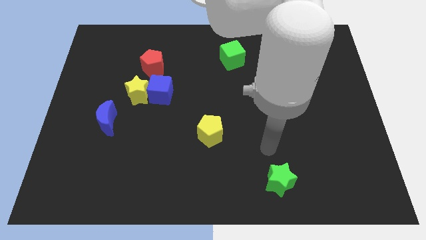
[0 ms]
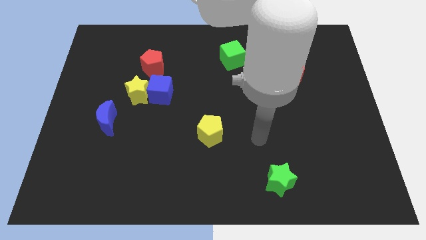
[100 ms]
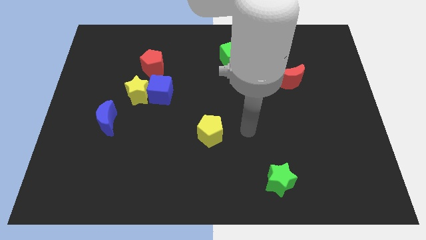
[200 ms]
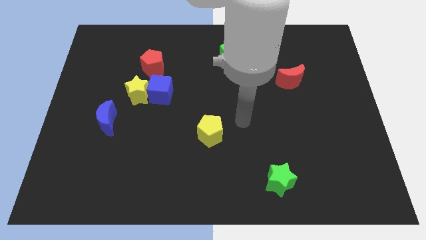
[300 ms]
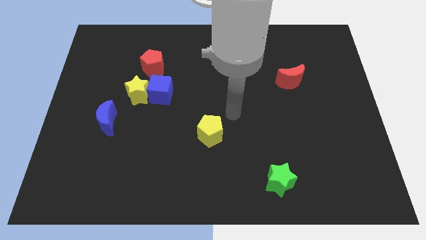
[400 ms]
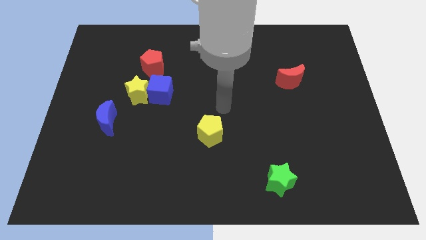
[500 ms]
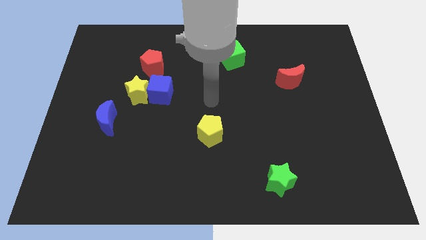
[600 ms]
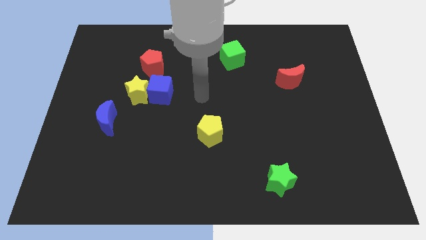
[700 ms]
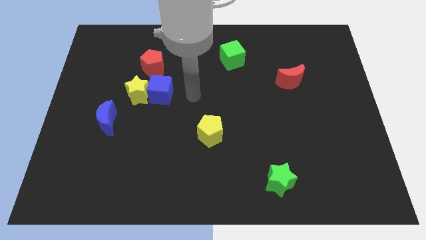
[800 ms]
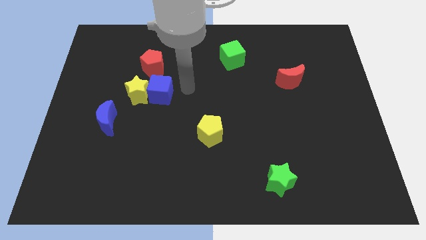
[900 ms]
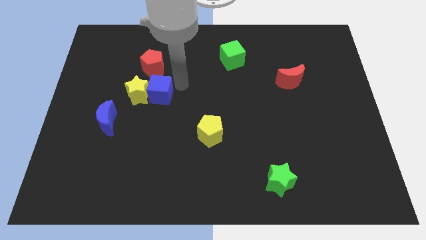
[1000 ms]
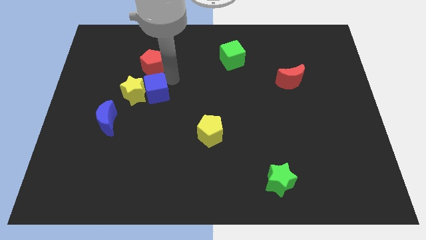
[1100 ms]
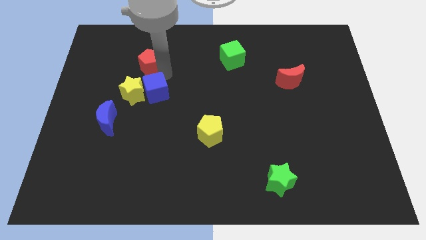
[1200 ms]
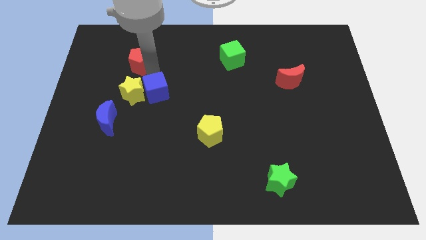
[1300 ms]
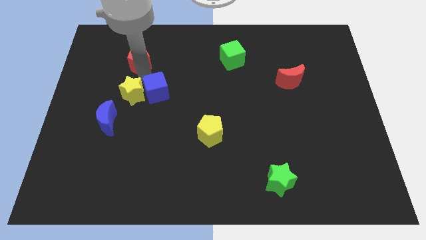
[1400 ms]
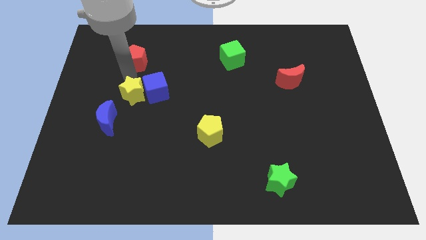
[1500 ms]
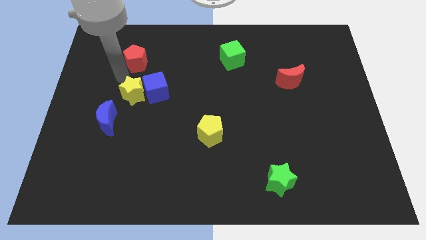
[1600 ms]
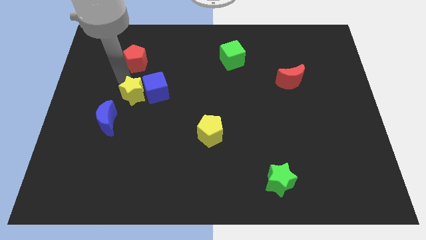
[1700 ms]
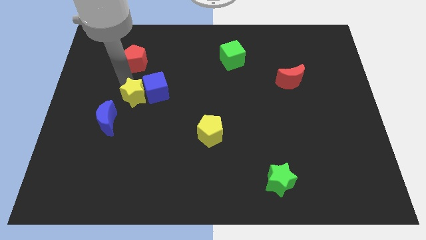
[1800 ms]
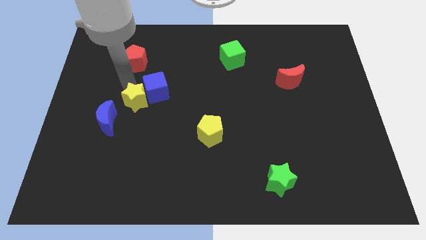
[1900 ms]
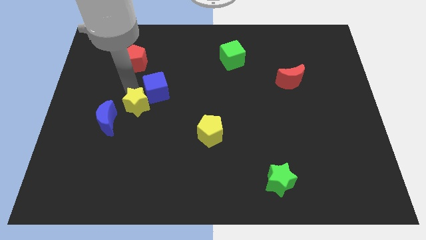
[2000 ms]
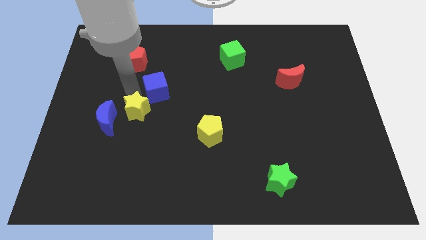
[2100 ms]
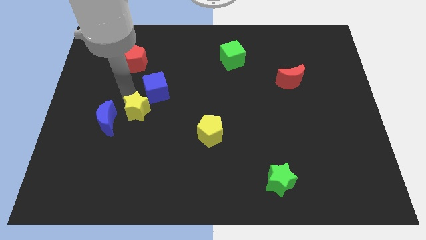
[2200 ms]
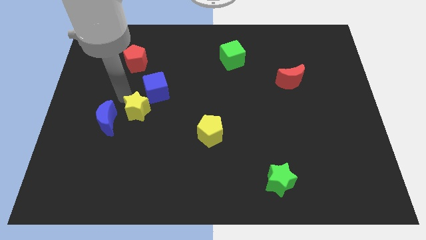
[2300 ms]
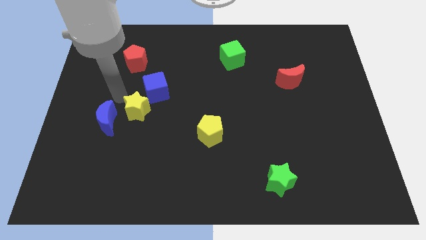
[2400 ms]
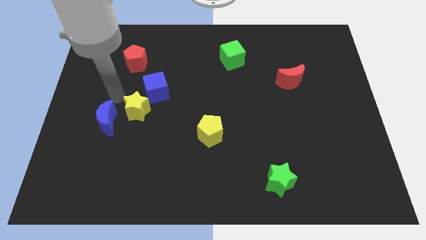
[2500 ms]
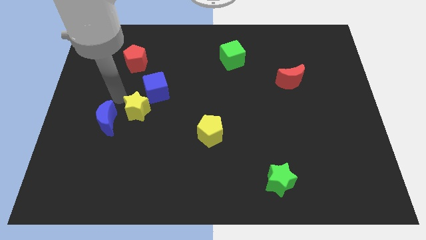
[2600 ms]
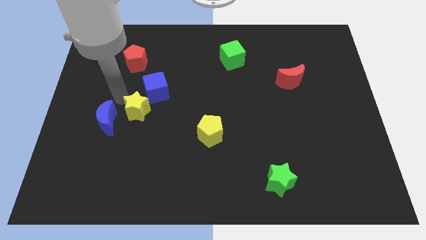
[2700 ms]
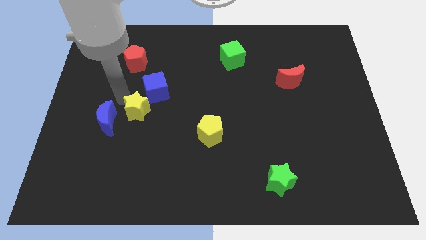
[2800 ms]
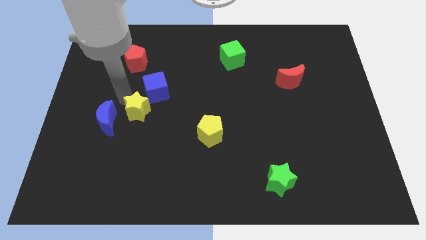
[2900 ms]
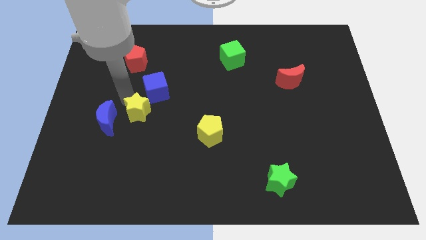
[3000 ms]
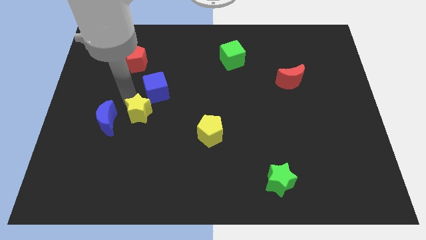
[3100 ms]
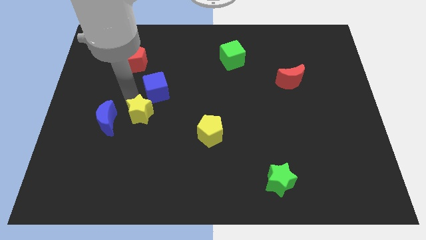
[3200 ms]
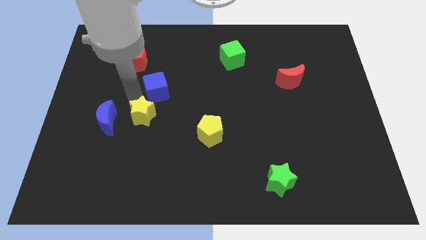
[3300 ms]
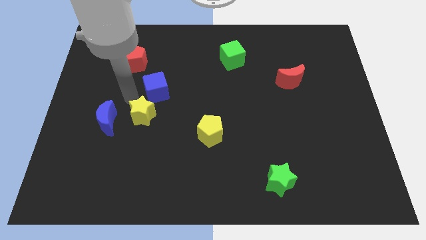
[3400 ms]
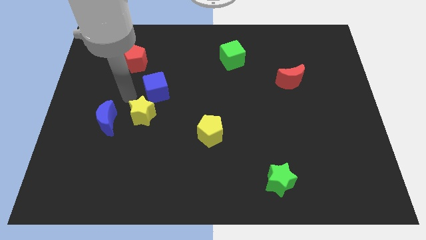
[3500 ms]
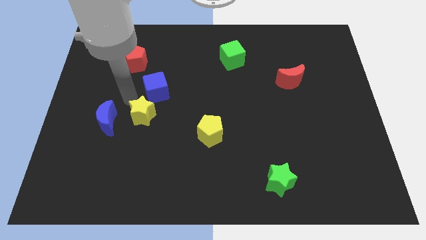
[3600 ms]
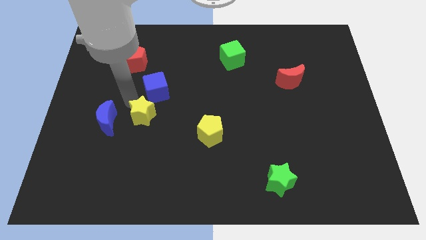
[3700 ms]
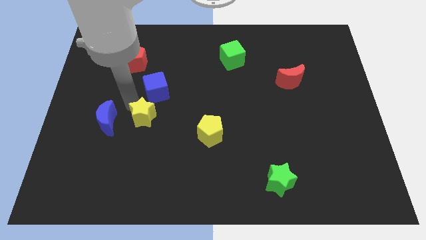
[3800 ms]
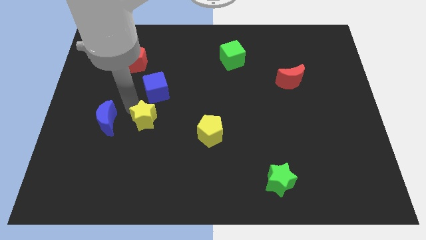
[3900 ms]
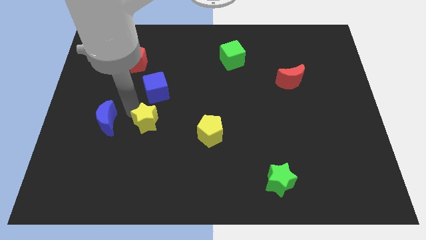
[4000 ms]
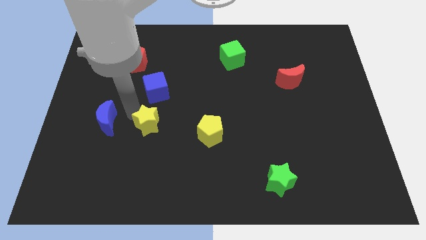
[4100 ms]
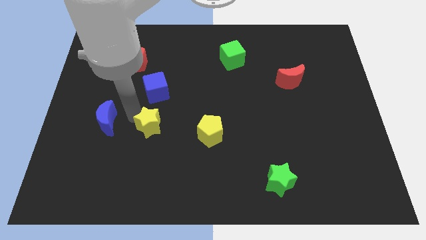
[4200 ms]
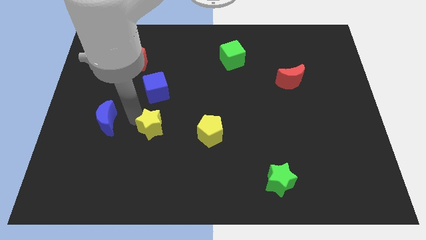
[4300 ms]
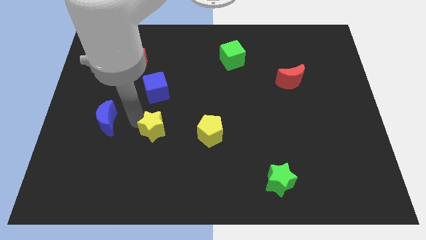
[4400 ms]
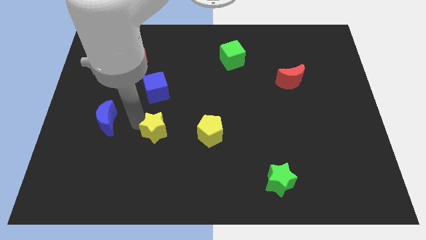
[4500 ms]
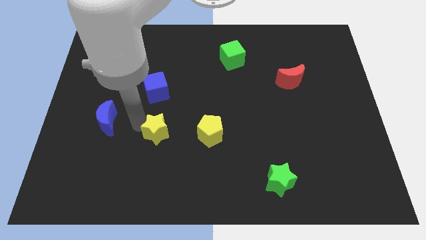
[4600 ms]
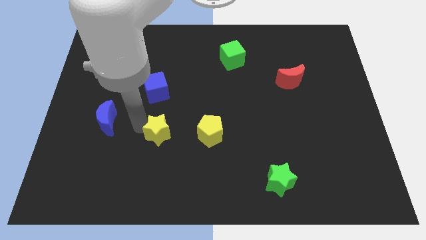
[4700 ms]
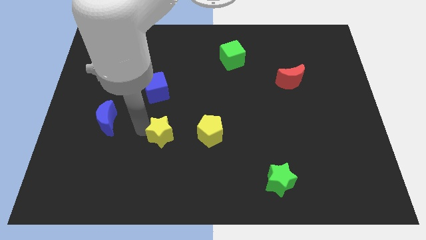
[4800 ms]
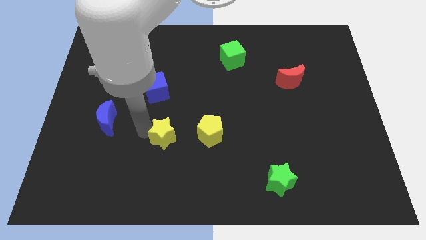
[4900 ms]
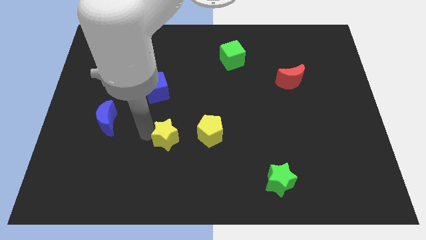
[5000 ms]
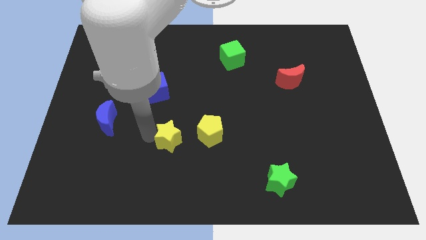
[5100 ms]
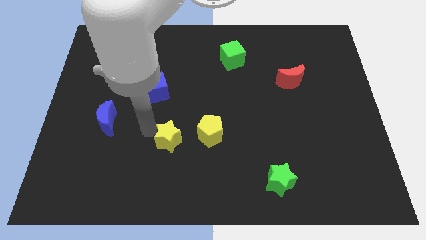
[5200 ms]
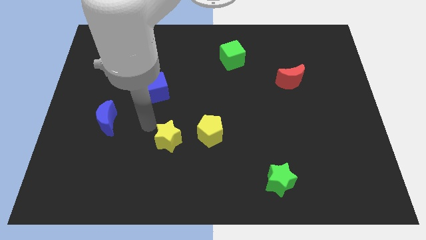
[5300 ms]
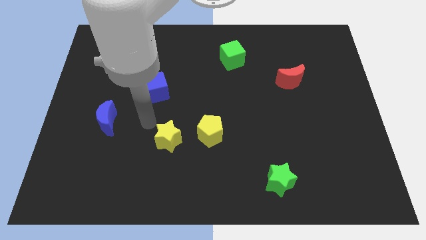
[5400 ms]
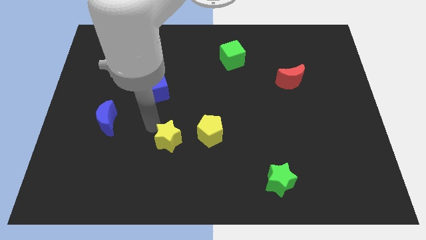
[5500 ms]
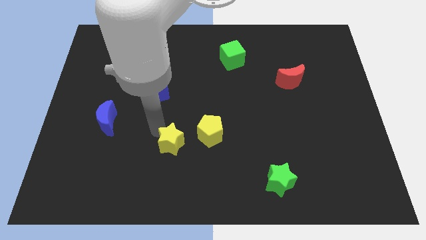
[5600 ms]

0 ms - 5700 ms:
slide the yellow star diagonally down and to the left of the yellow pentagon
